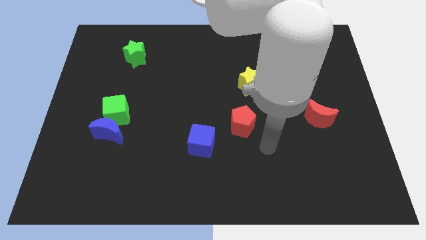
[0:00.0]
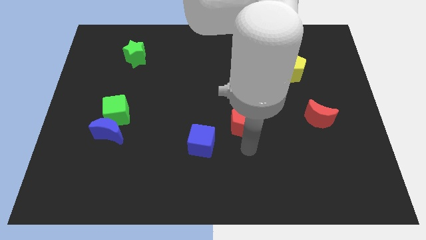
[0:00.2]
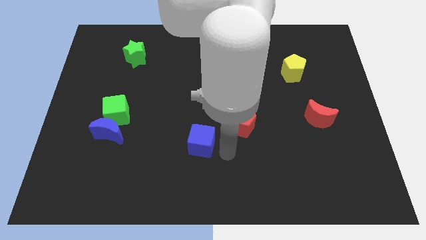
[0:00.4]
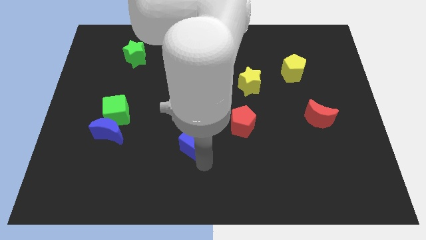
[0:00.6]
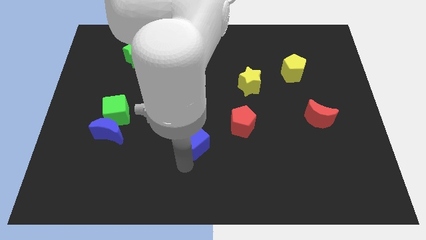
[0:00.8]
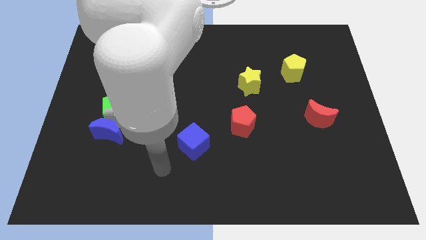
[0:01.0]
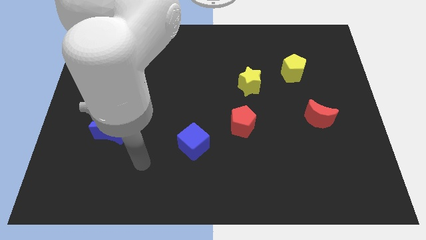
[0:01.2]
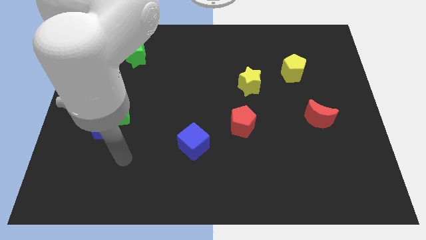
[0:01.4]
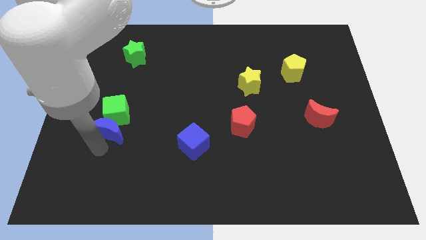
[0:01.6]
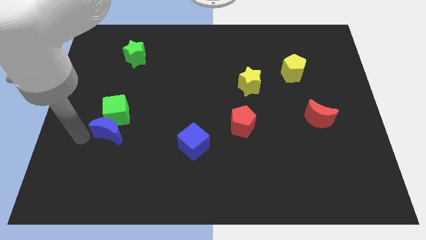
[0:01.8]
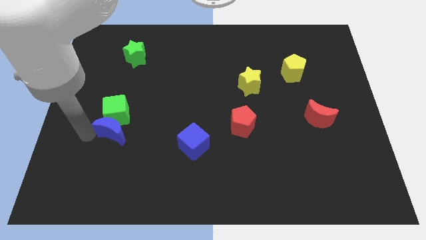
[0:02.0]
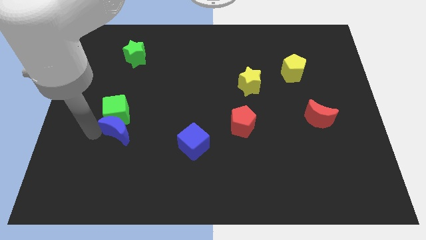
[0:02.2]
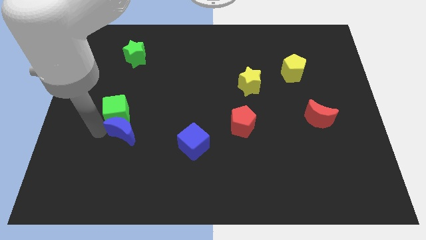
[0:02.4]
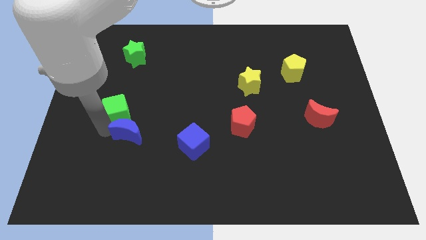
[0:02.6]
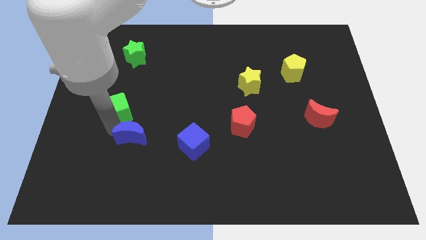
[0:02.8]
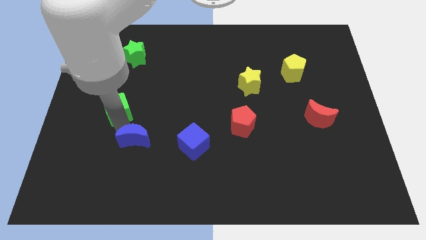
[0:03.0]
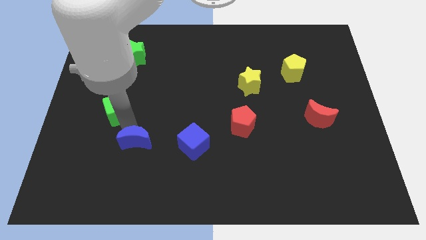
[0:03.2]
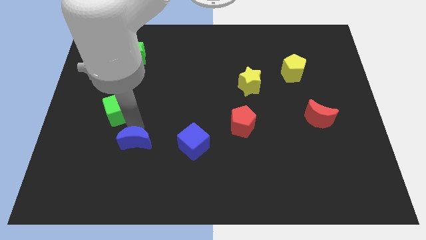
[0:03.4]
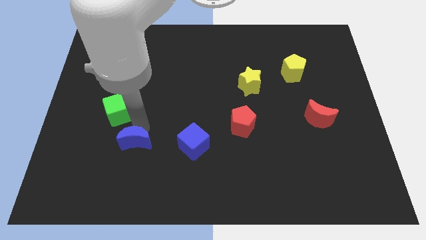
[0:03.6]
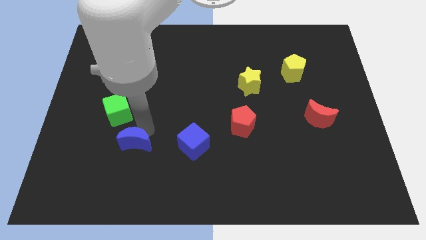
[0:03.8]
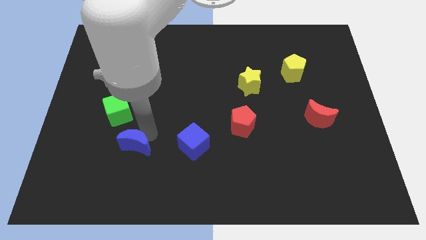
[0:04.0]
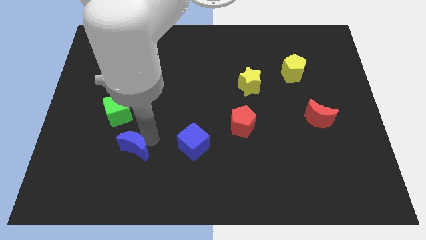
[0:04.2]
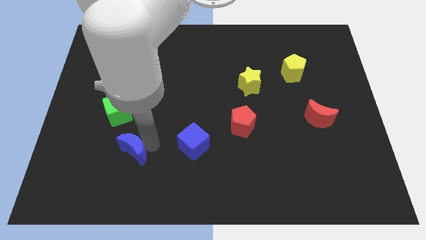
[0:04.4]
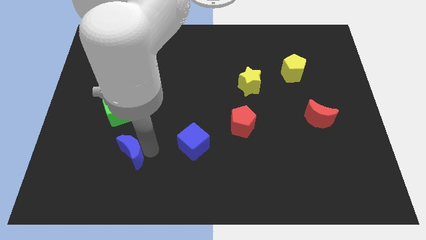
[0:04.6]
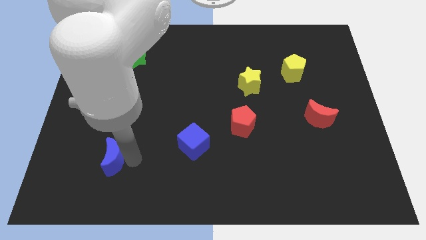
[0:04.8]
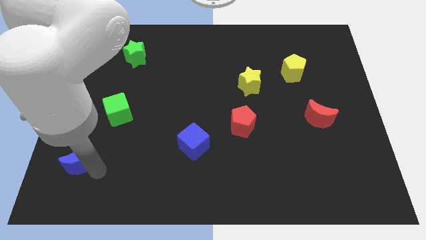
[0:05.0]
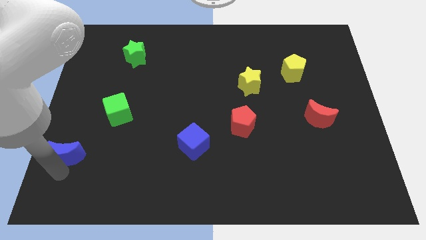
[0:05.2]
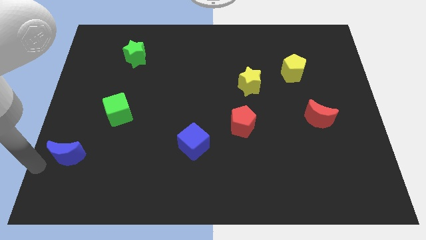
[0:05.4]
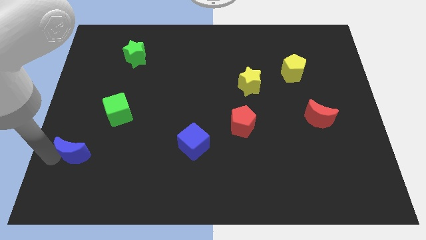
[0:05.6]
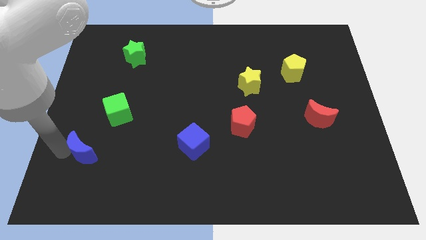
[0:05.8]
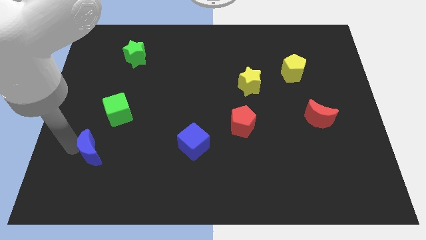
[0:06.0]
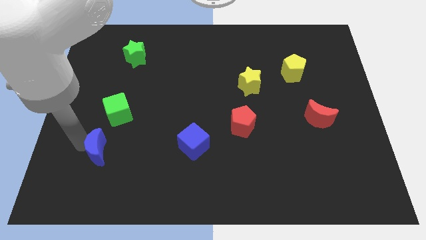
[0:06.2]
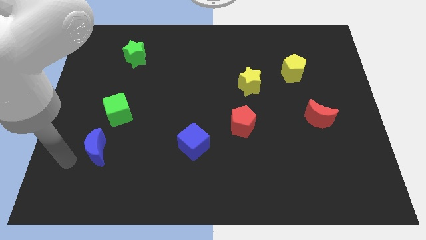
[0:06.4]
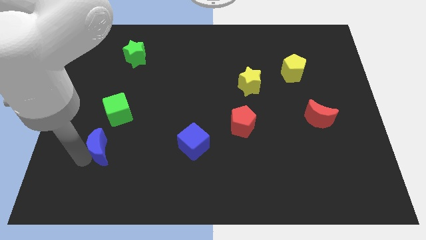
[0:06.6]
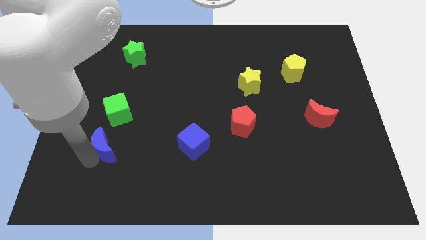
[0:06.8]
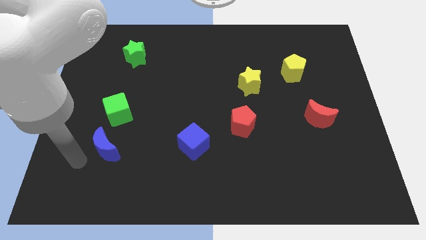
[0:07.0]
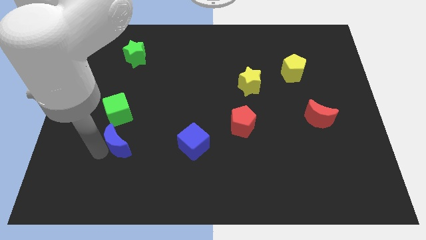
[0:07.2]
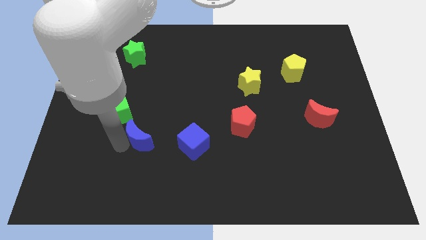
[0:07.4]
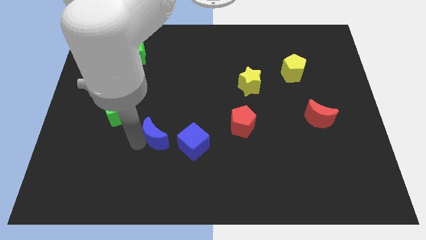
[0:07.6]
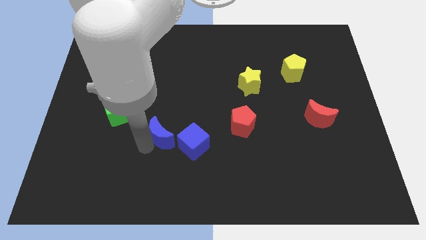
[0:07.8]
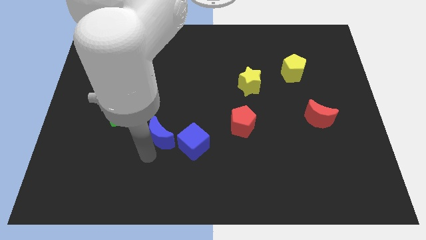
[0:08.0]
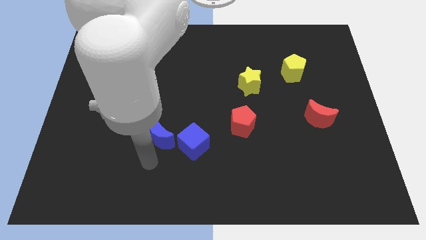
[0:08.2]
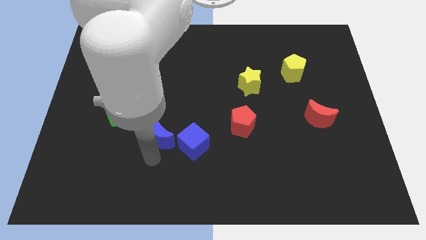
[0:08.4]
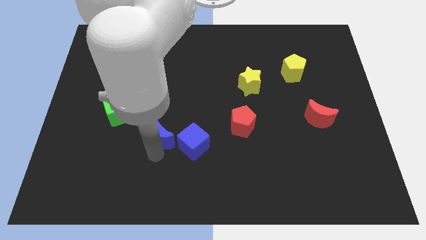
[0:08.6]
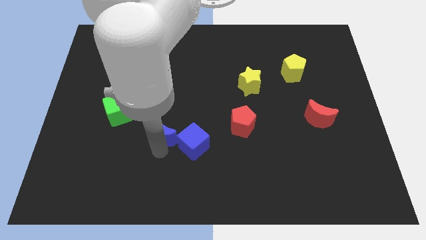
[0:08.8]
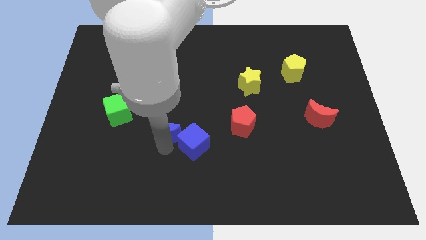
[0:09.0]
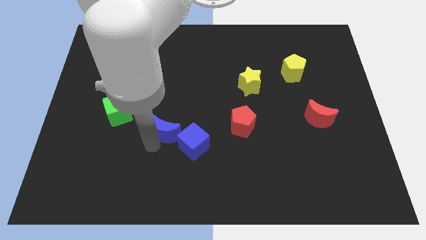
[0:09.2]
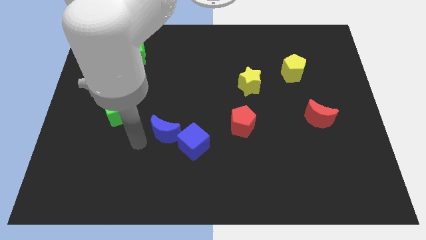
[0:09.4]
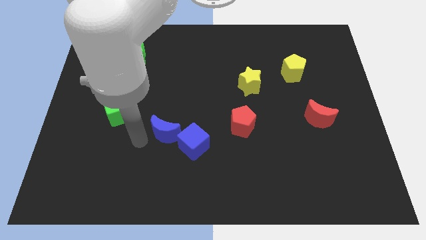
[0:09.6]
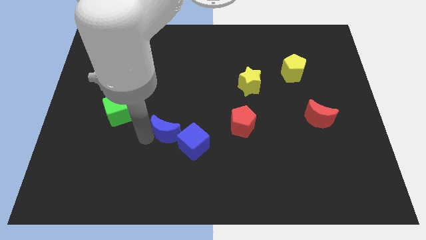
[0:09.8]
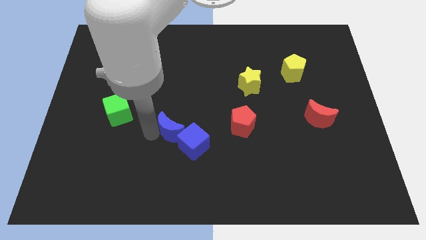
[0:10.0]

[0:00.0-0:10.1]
move the blue moon to the left side of the red pentagon

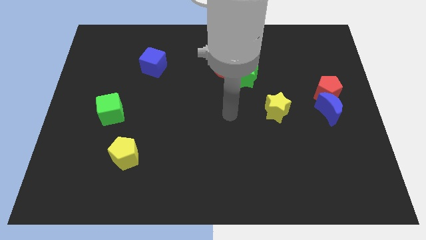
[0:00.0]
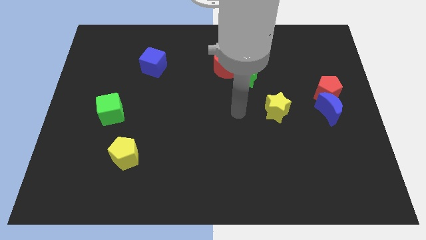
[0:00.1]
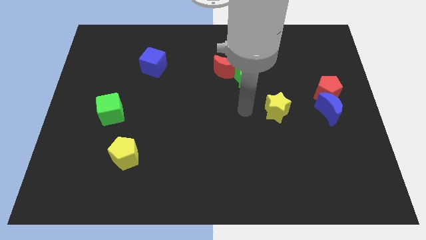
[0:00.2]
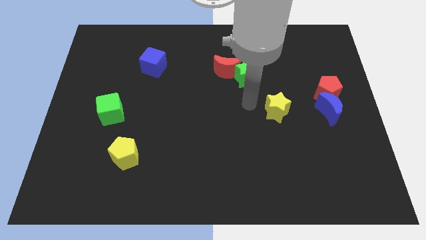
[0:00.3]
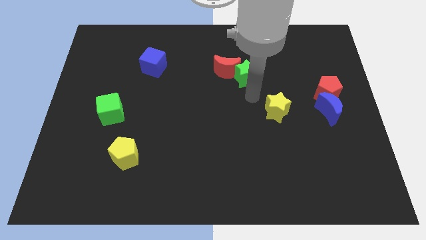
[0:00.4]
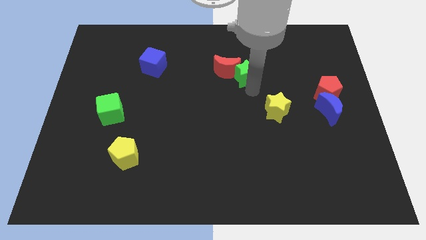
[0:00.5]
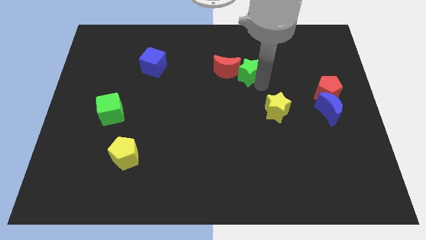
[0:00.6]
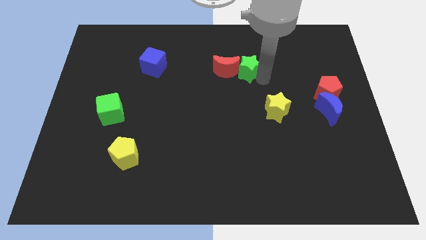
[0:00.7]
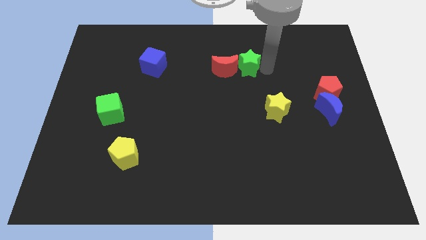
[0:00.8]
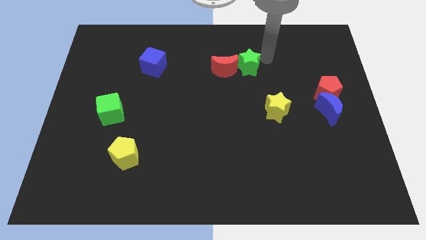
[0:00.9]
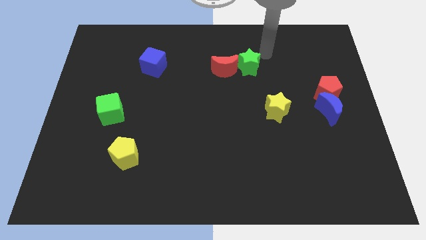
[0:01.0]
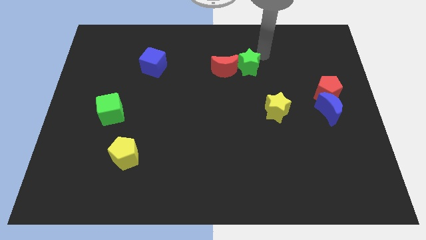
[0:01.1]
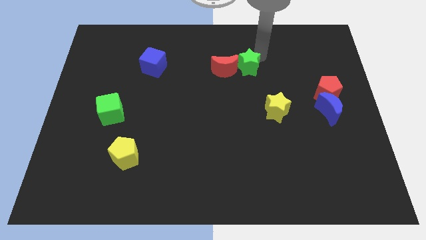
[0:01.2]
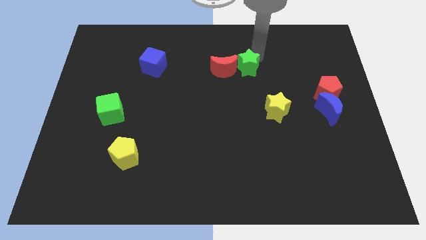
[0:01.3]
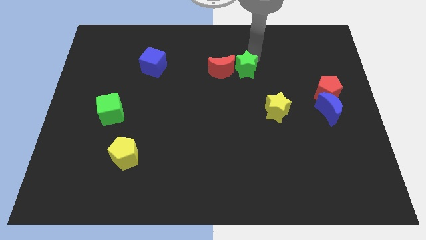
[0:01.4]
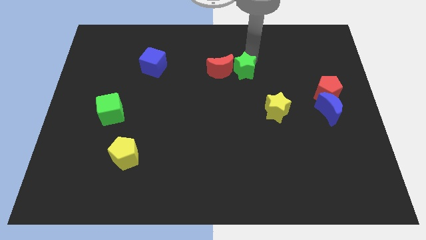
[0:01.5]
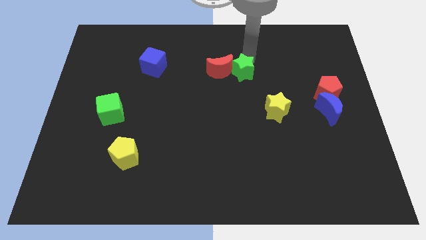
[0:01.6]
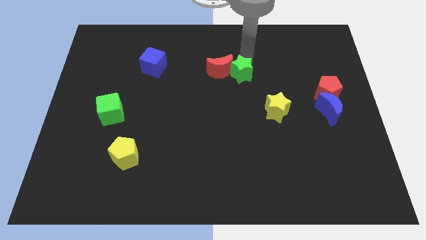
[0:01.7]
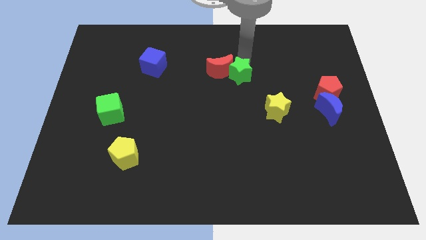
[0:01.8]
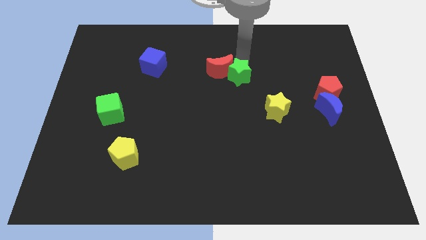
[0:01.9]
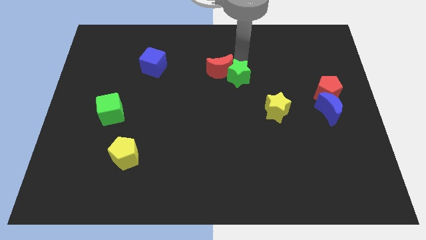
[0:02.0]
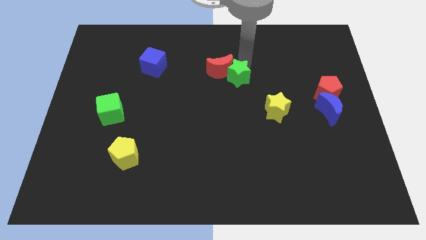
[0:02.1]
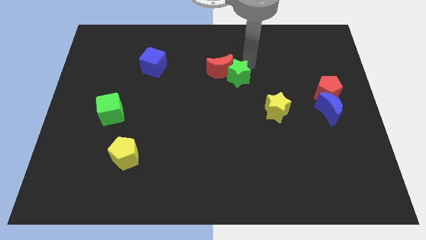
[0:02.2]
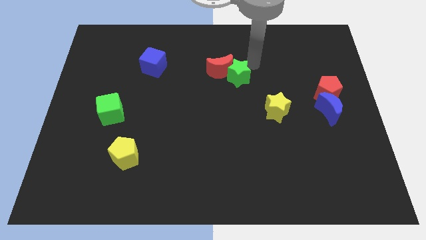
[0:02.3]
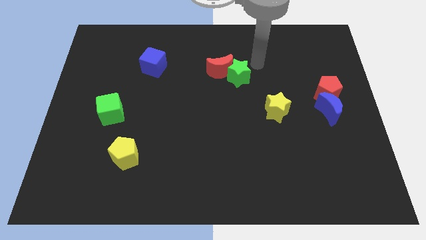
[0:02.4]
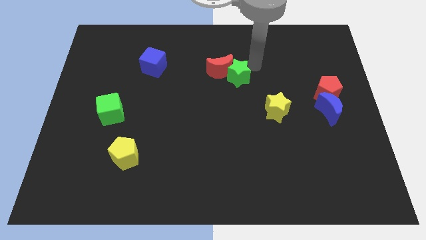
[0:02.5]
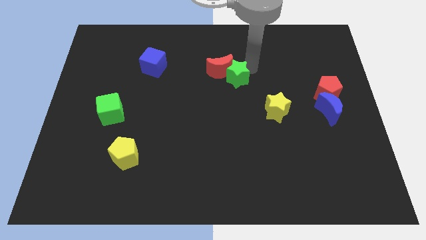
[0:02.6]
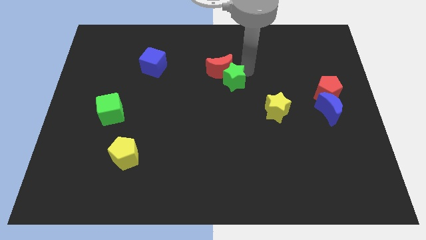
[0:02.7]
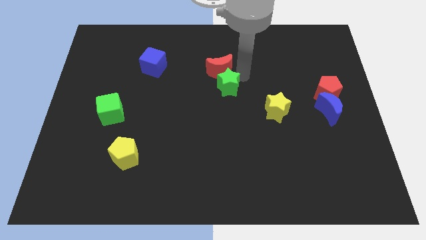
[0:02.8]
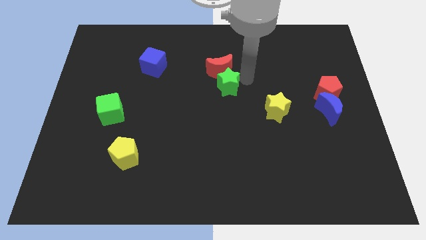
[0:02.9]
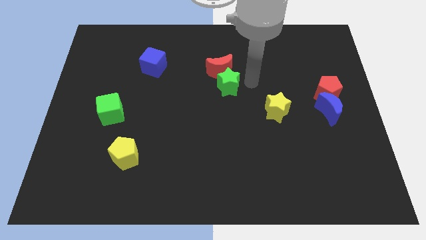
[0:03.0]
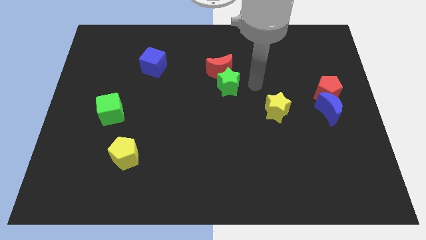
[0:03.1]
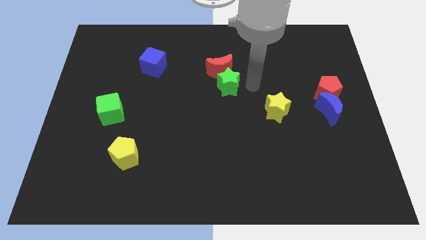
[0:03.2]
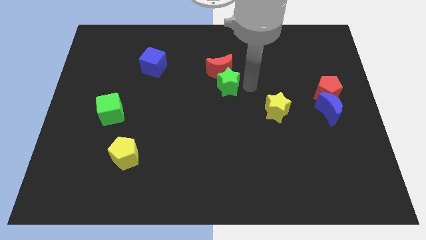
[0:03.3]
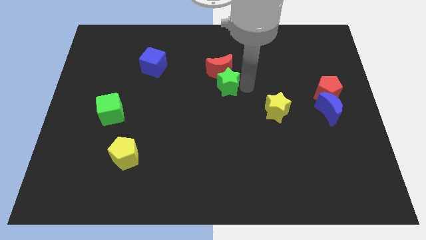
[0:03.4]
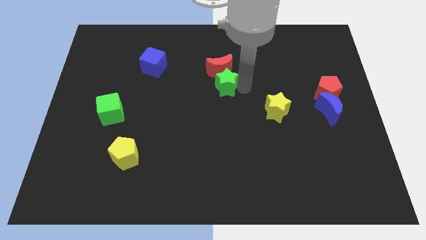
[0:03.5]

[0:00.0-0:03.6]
push the green star to the bottom left of the red moon
